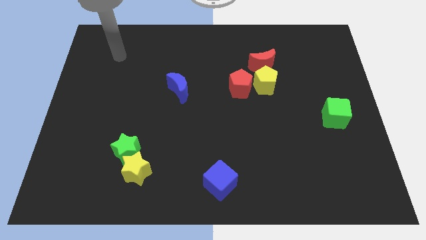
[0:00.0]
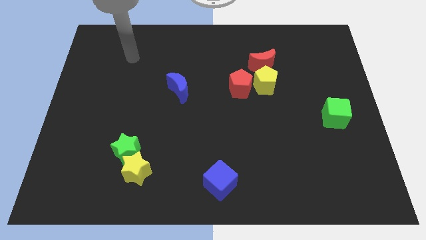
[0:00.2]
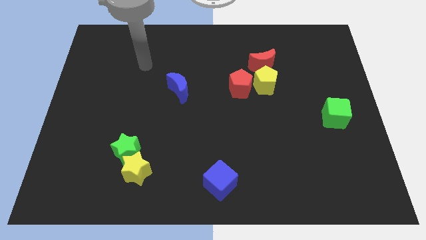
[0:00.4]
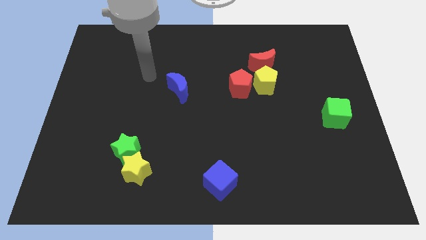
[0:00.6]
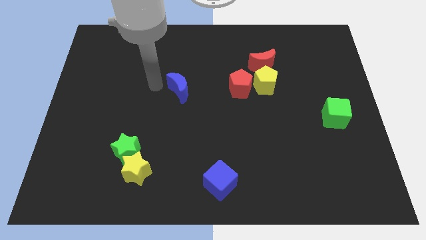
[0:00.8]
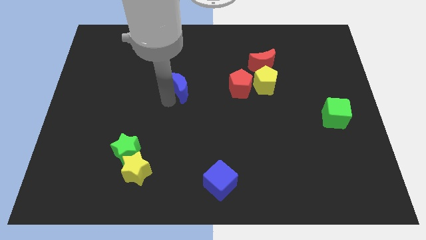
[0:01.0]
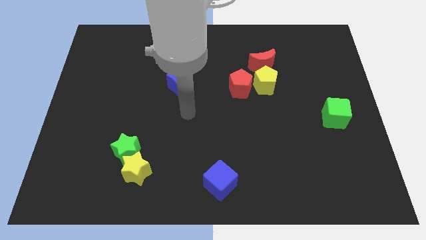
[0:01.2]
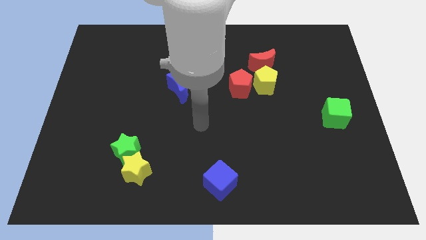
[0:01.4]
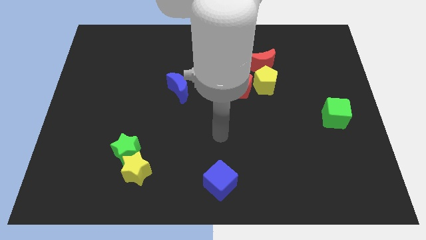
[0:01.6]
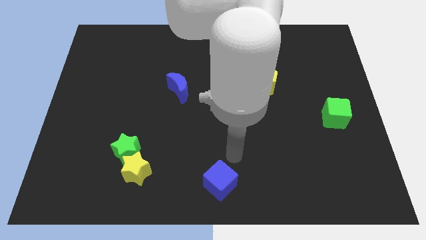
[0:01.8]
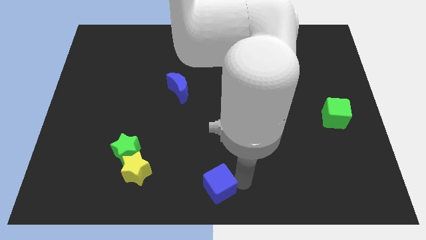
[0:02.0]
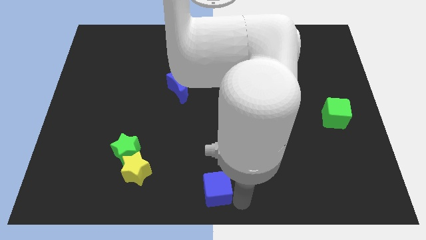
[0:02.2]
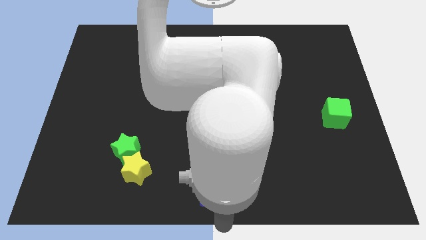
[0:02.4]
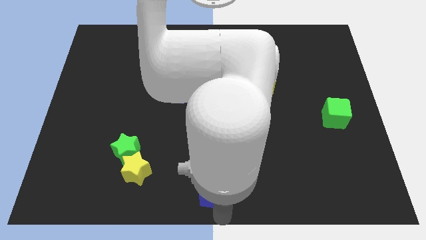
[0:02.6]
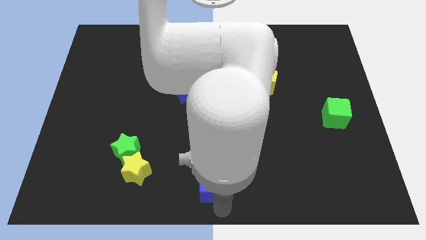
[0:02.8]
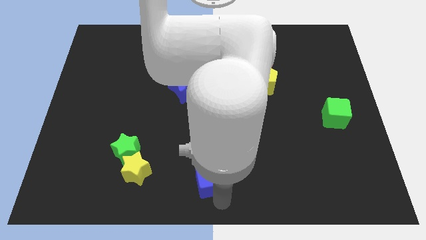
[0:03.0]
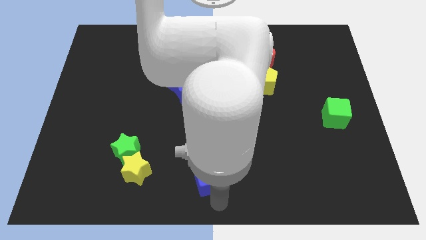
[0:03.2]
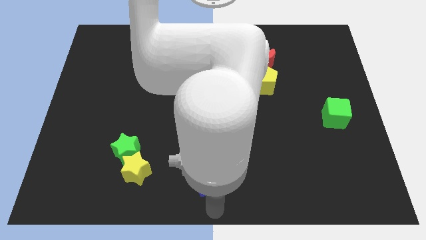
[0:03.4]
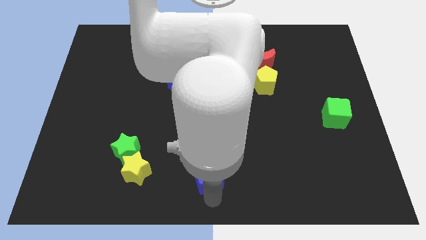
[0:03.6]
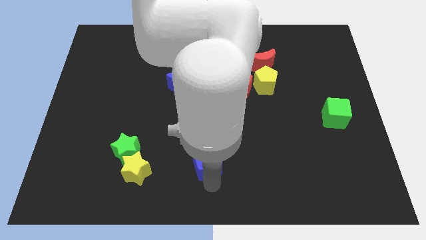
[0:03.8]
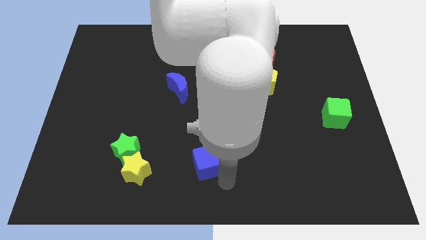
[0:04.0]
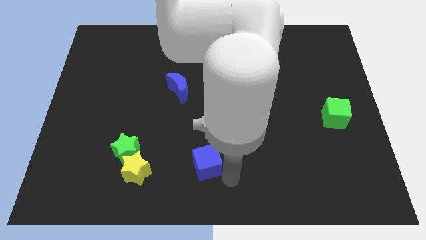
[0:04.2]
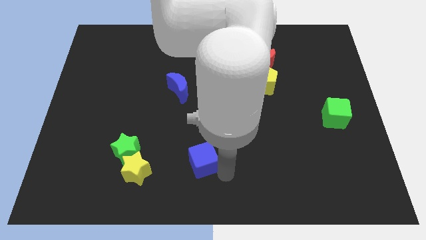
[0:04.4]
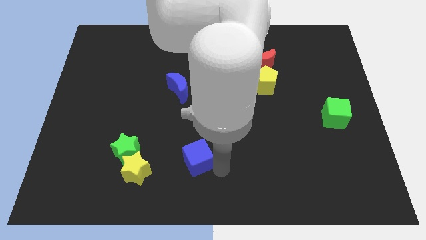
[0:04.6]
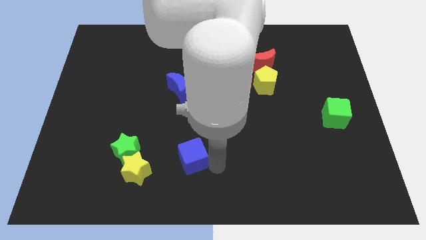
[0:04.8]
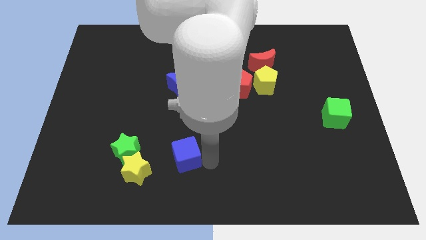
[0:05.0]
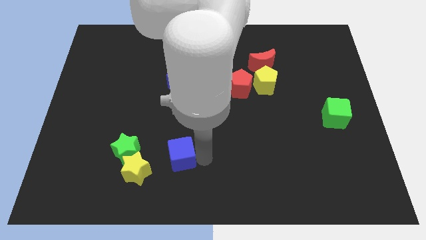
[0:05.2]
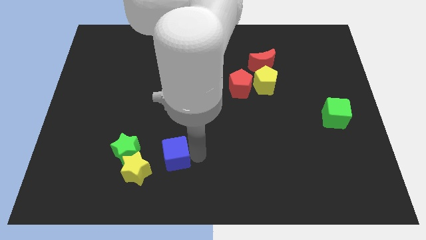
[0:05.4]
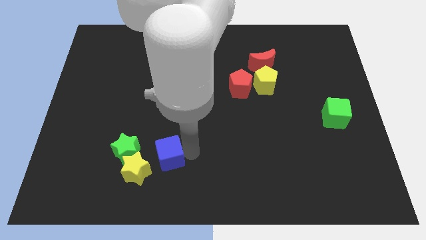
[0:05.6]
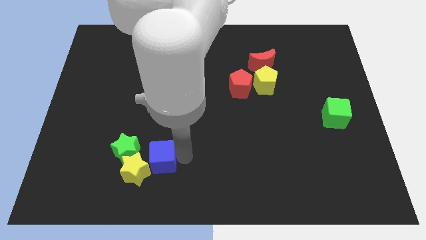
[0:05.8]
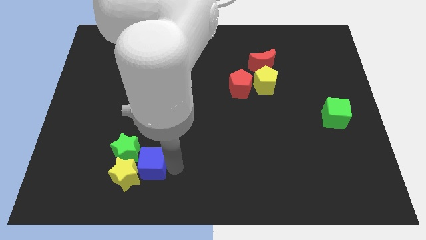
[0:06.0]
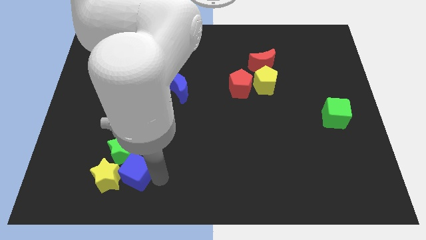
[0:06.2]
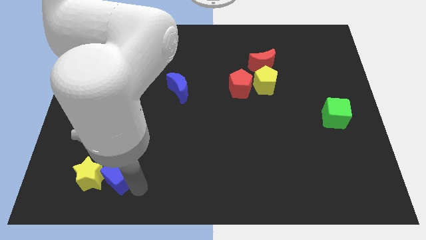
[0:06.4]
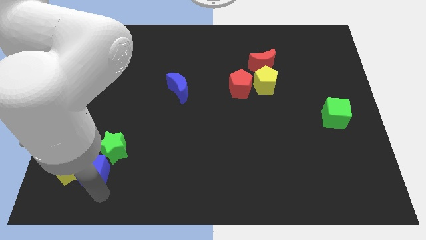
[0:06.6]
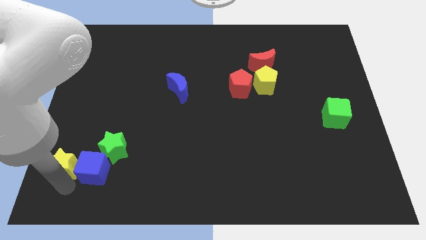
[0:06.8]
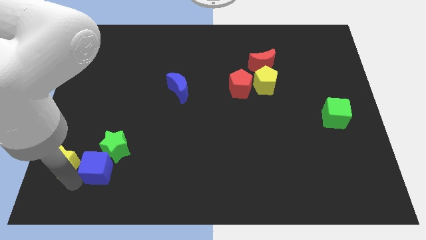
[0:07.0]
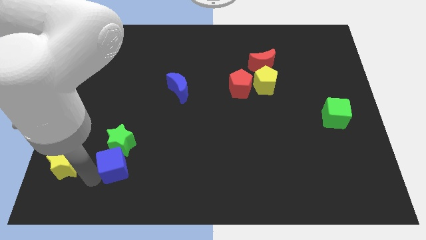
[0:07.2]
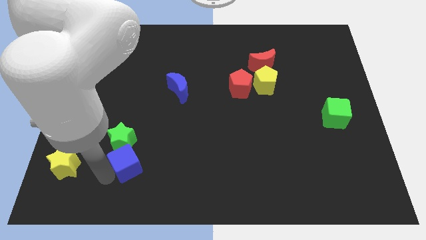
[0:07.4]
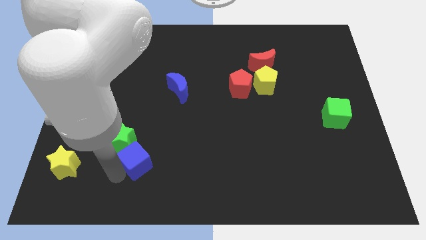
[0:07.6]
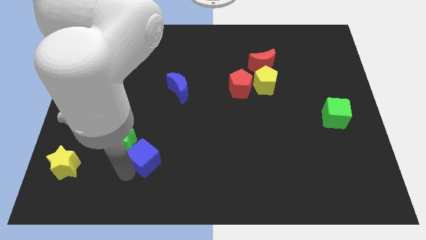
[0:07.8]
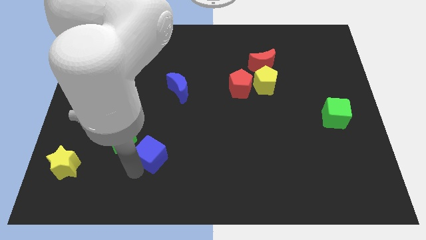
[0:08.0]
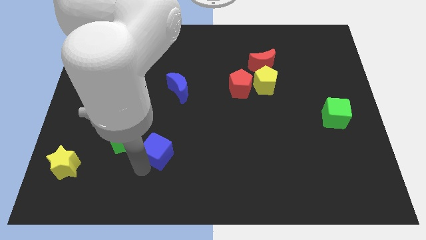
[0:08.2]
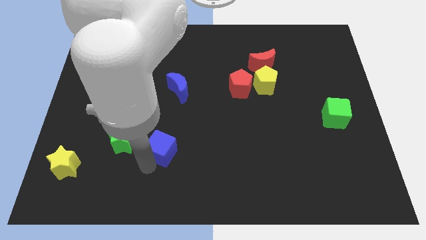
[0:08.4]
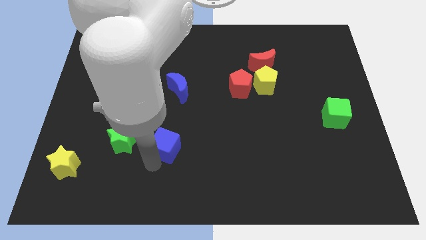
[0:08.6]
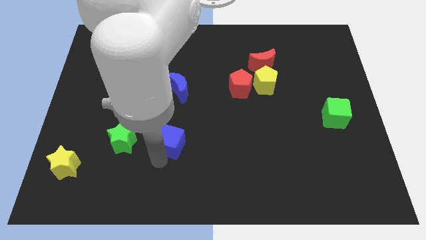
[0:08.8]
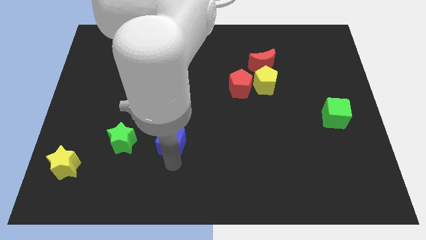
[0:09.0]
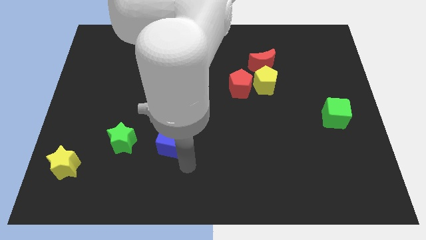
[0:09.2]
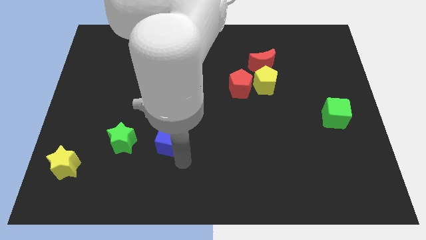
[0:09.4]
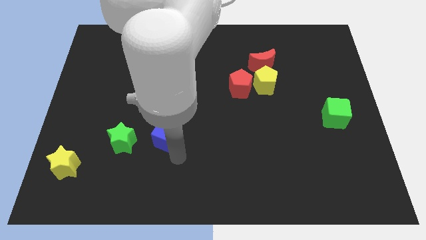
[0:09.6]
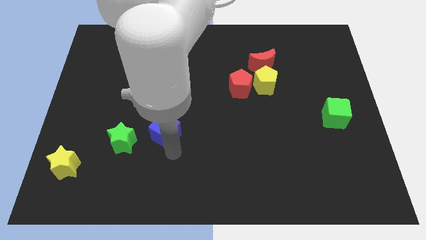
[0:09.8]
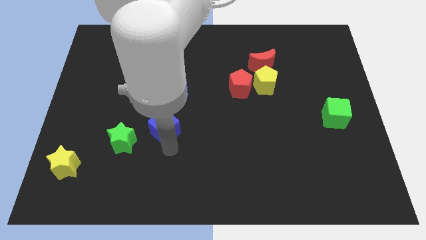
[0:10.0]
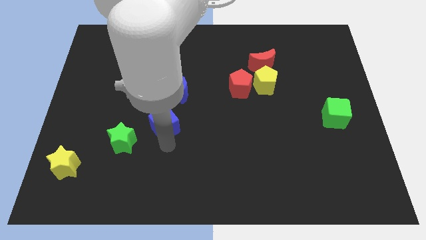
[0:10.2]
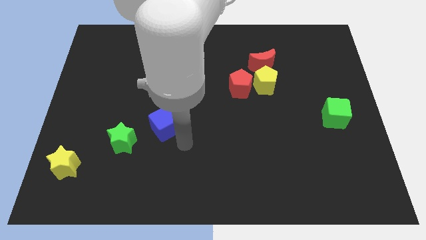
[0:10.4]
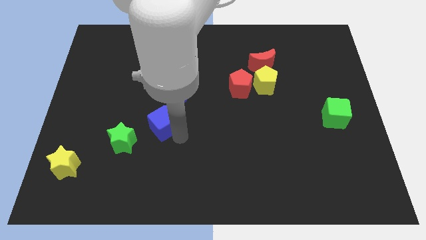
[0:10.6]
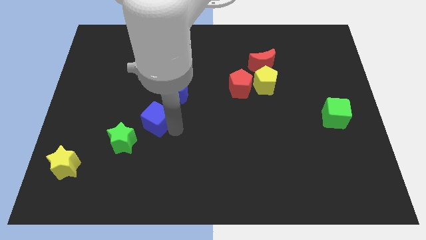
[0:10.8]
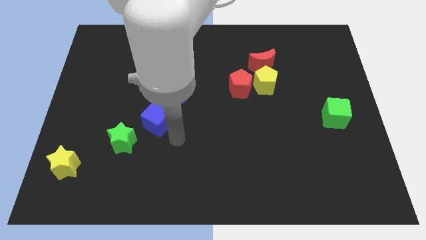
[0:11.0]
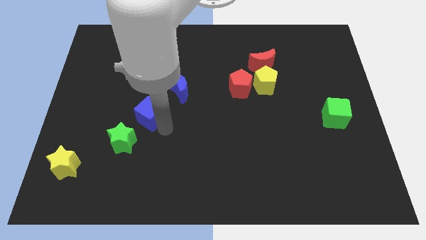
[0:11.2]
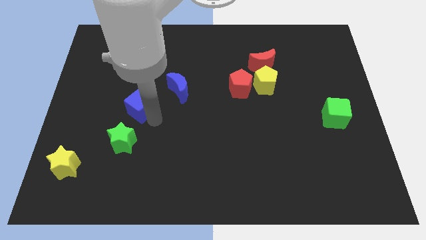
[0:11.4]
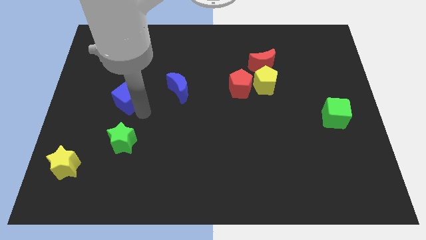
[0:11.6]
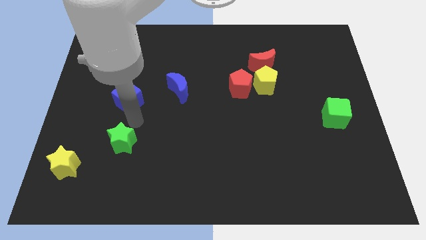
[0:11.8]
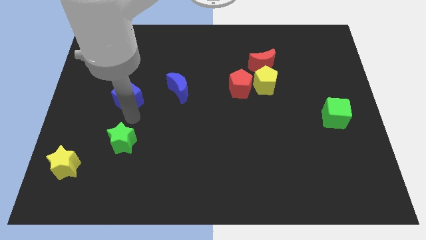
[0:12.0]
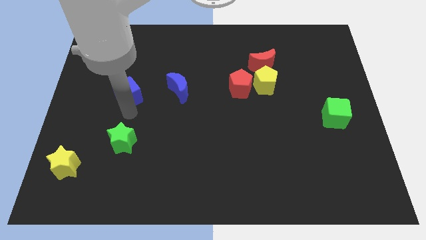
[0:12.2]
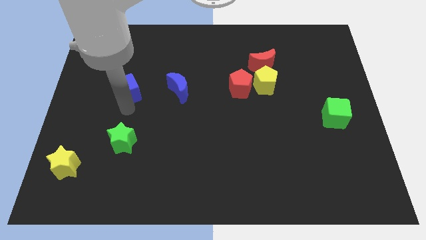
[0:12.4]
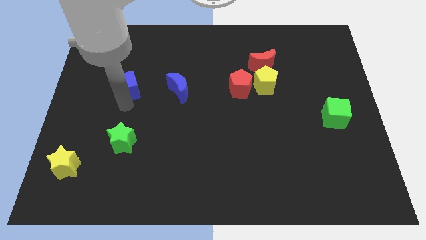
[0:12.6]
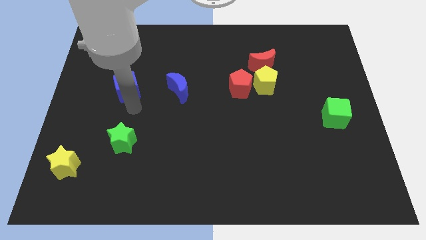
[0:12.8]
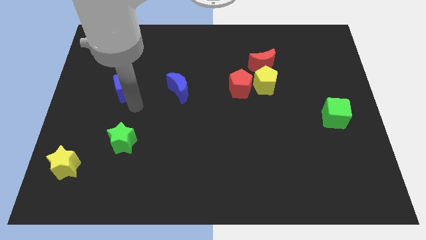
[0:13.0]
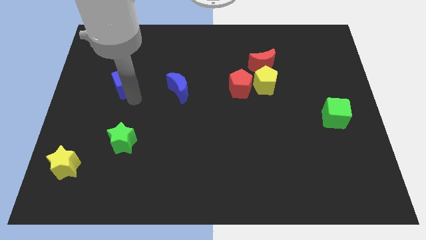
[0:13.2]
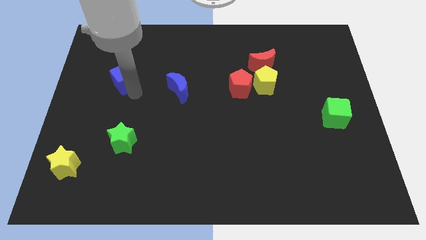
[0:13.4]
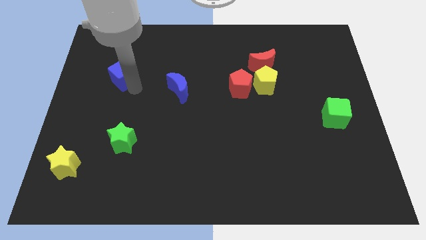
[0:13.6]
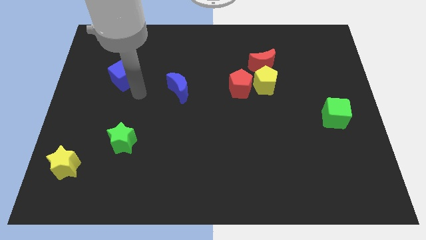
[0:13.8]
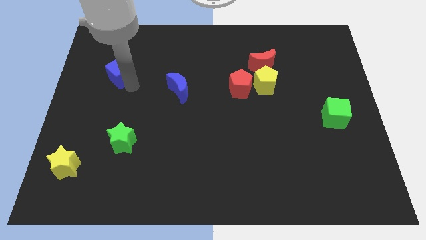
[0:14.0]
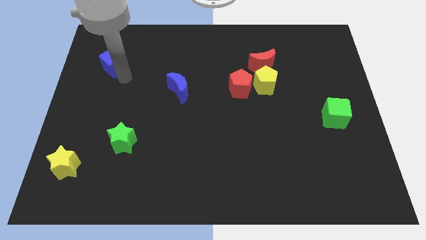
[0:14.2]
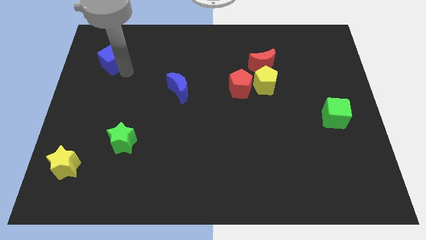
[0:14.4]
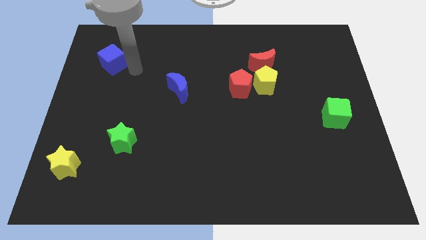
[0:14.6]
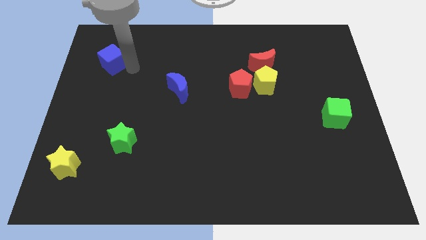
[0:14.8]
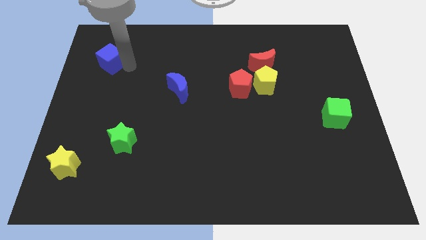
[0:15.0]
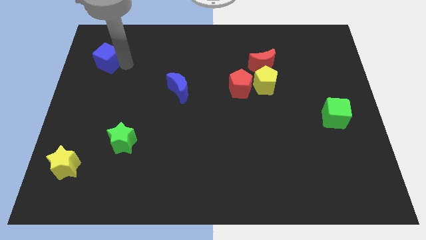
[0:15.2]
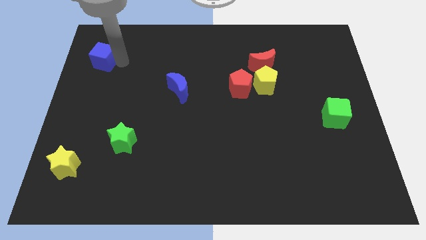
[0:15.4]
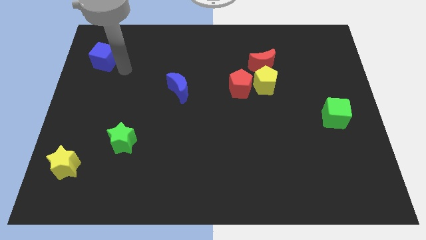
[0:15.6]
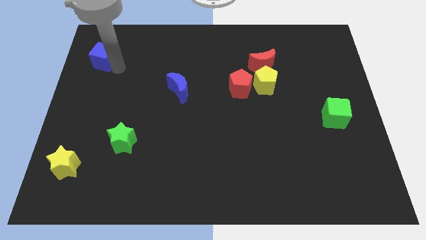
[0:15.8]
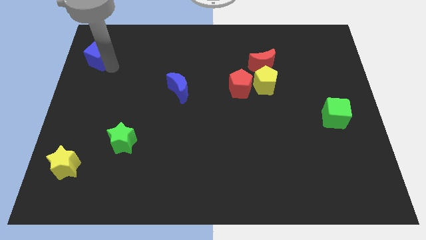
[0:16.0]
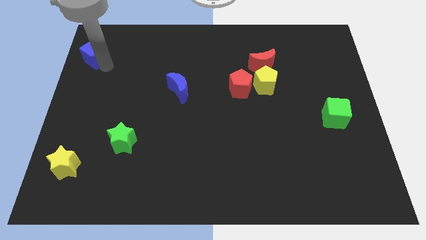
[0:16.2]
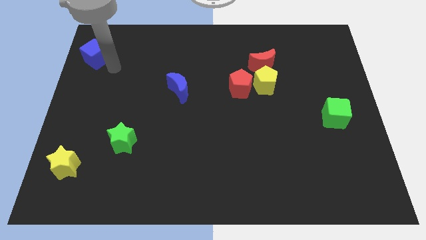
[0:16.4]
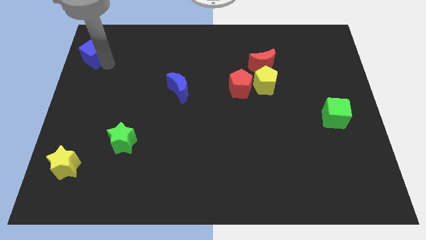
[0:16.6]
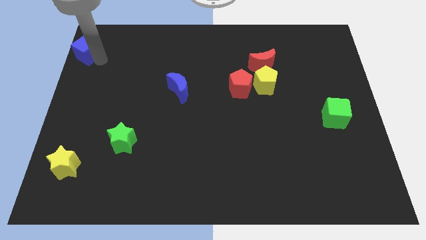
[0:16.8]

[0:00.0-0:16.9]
move the blue cube to the upper left corner
